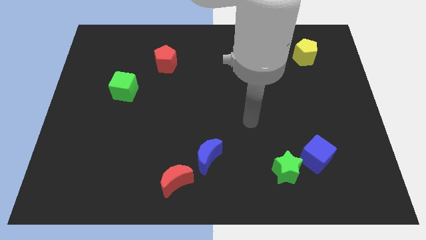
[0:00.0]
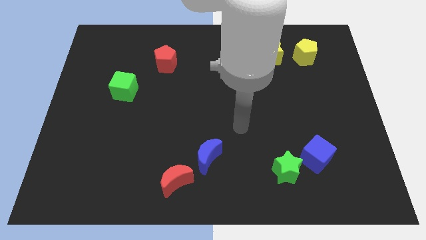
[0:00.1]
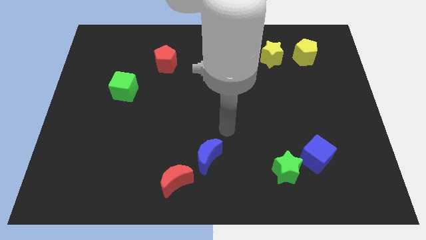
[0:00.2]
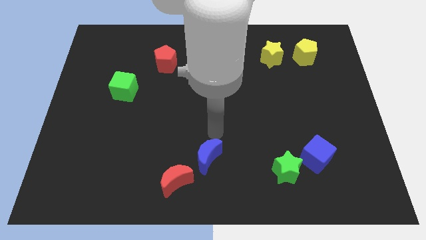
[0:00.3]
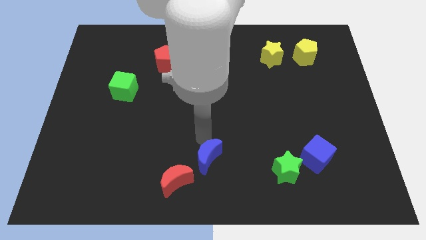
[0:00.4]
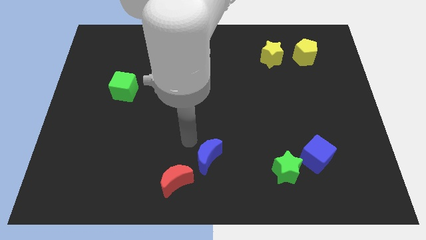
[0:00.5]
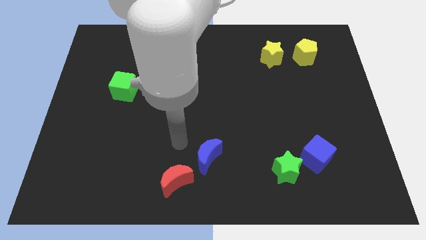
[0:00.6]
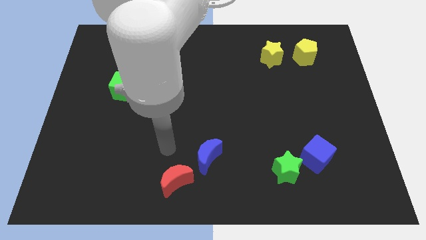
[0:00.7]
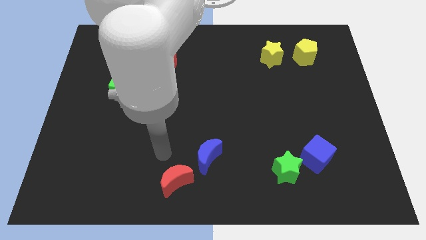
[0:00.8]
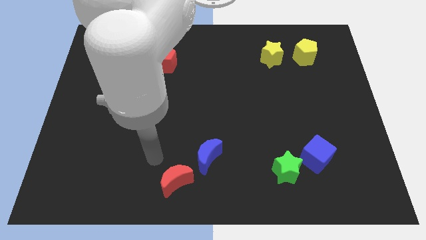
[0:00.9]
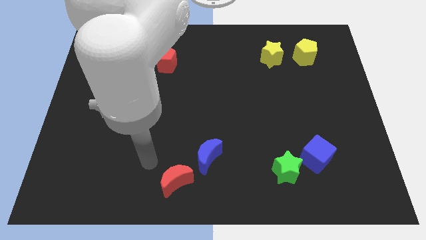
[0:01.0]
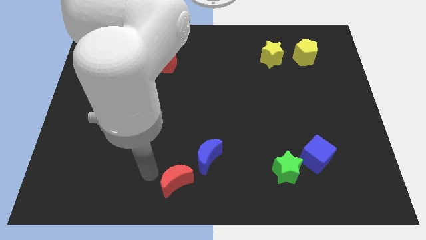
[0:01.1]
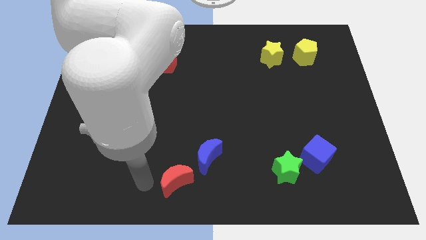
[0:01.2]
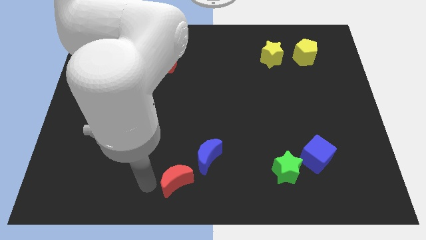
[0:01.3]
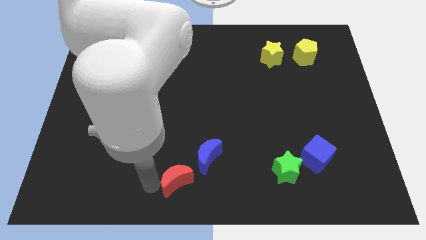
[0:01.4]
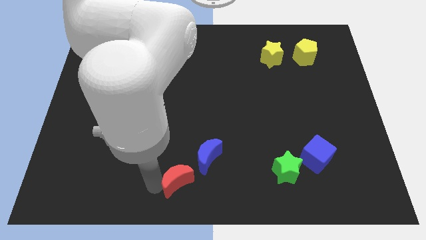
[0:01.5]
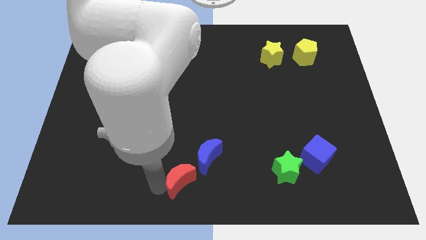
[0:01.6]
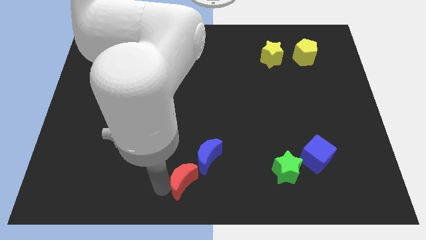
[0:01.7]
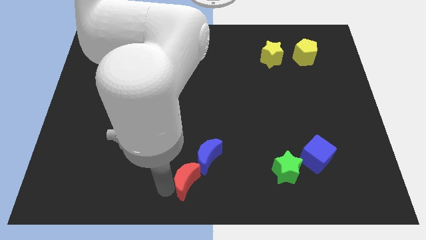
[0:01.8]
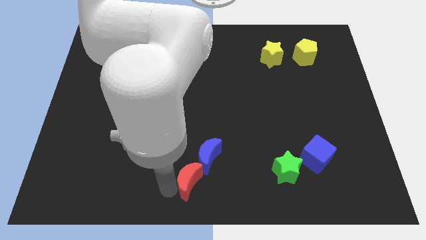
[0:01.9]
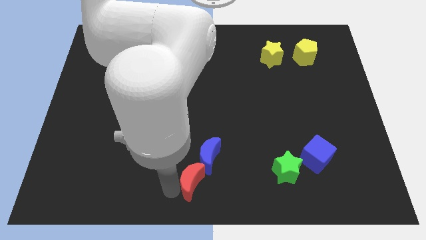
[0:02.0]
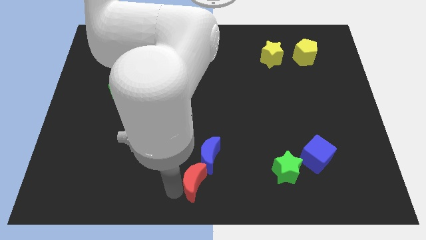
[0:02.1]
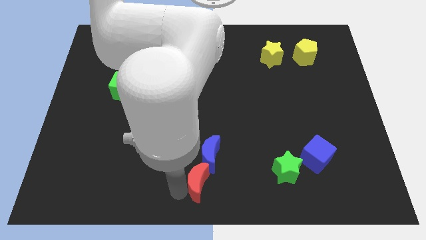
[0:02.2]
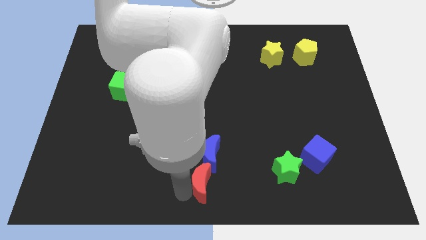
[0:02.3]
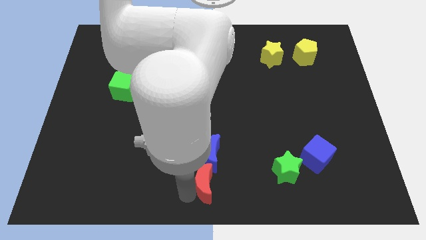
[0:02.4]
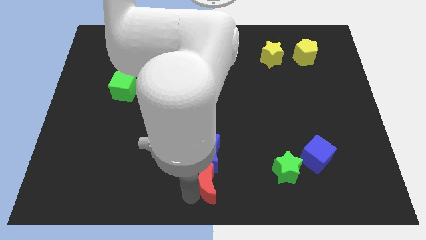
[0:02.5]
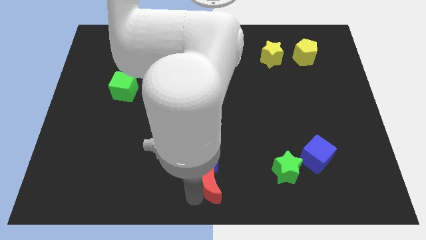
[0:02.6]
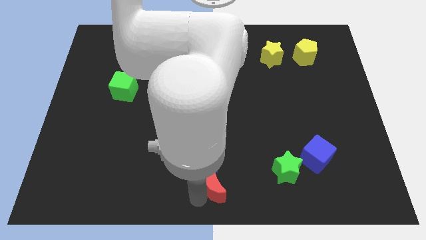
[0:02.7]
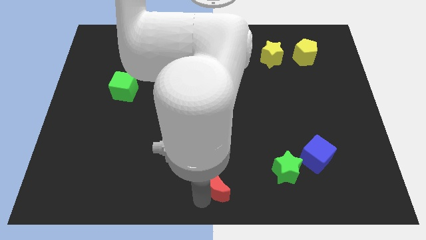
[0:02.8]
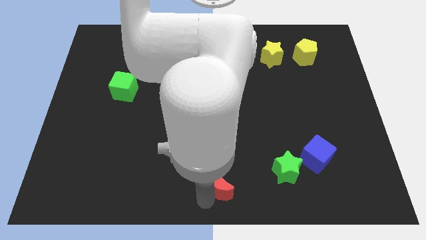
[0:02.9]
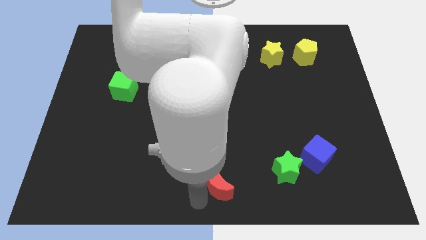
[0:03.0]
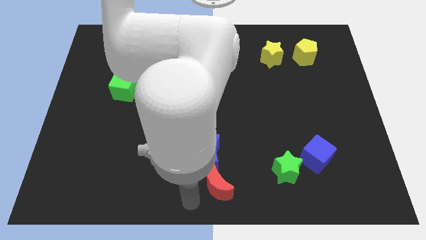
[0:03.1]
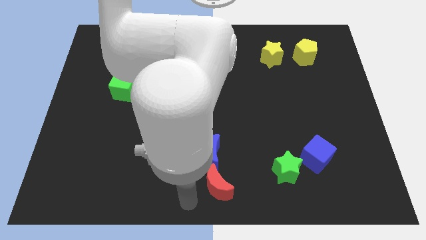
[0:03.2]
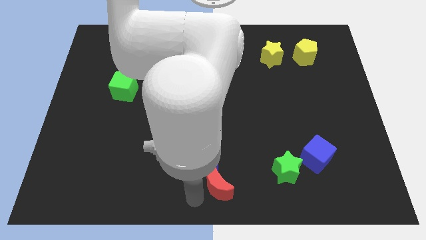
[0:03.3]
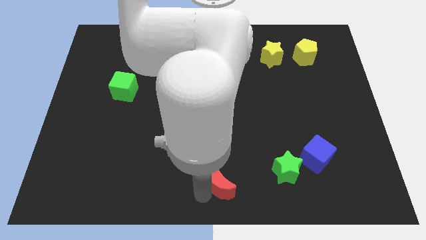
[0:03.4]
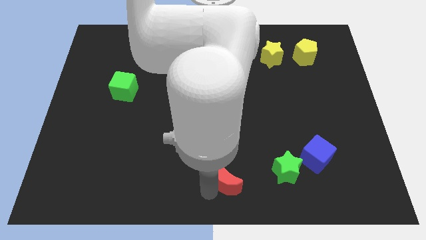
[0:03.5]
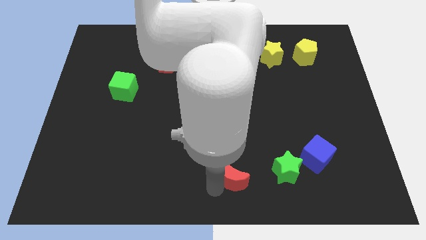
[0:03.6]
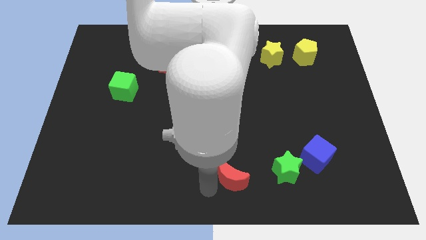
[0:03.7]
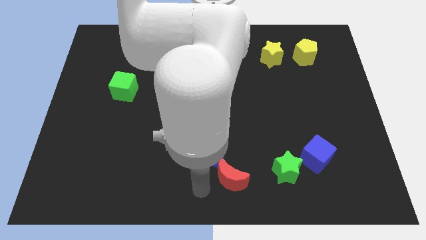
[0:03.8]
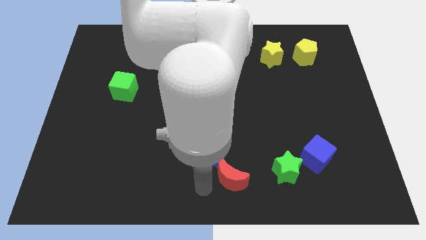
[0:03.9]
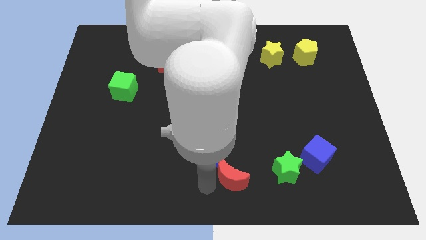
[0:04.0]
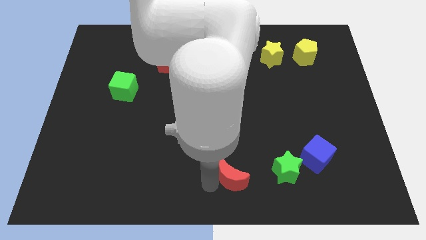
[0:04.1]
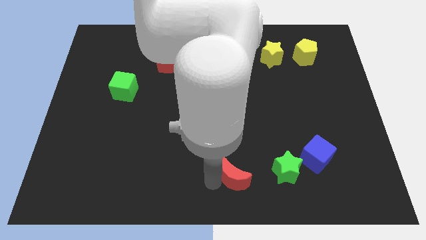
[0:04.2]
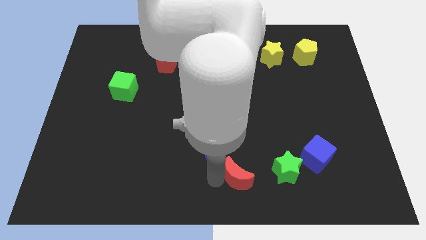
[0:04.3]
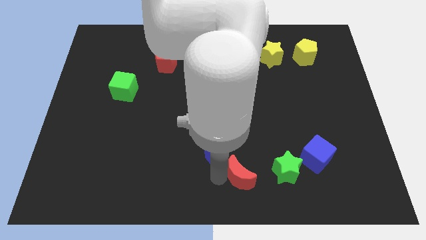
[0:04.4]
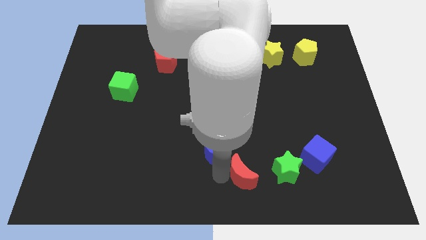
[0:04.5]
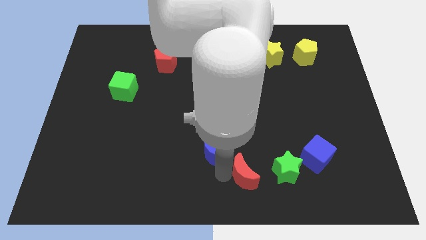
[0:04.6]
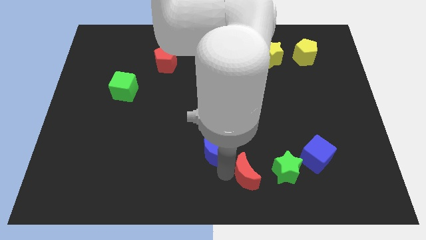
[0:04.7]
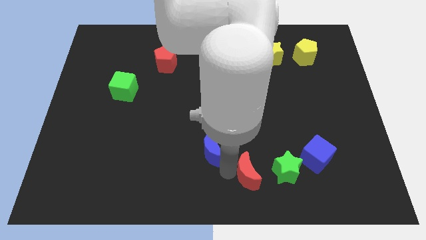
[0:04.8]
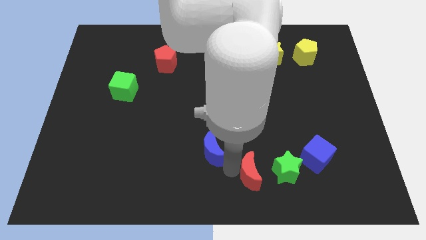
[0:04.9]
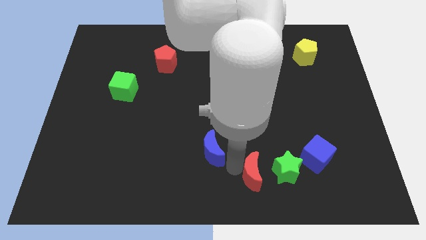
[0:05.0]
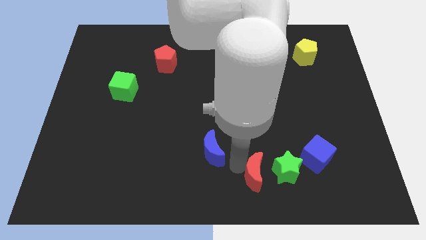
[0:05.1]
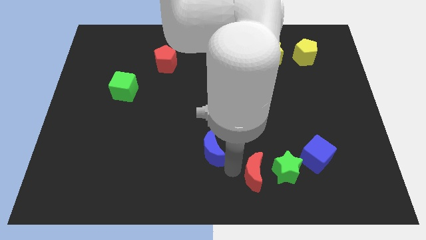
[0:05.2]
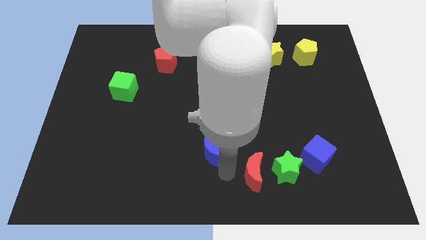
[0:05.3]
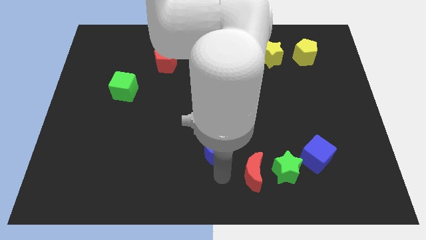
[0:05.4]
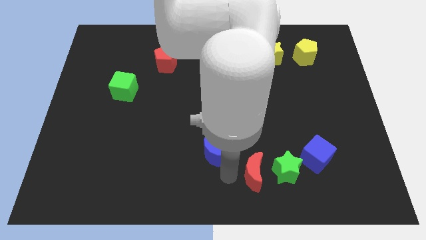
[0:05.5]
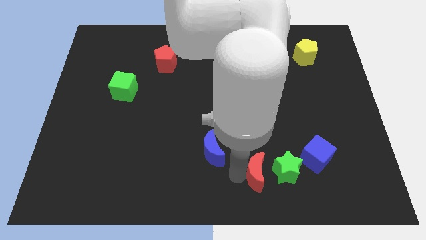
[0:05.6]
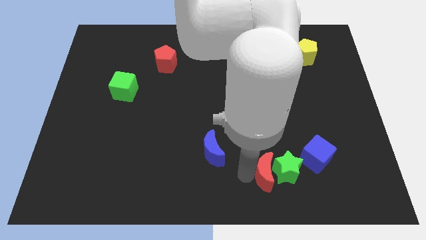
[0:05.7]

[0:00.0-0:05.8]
slide the red moon towards the green star
